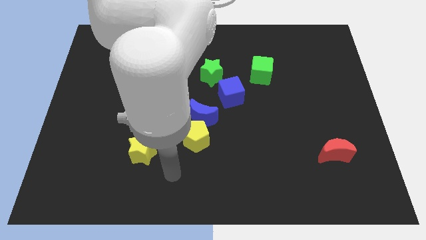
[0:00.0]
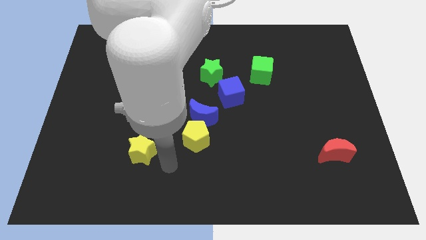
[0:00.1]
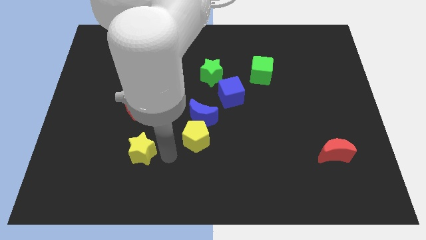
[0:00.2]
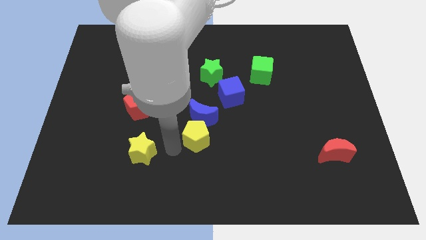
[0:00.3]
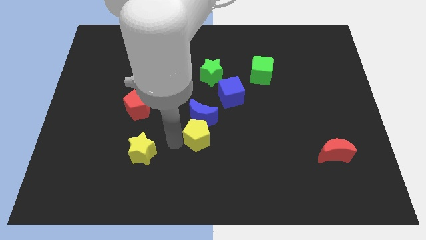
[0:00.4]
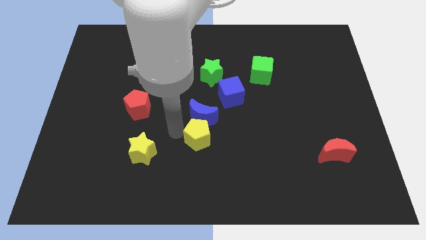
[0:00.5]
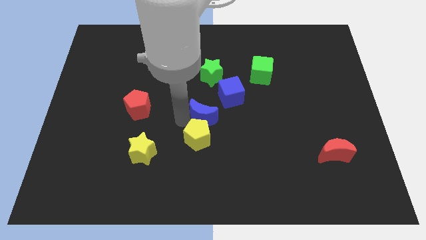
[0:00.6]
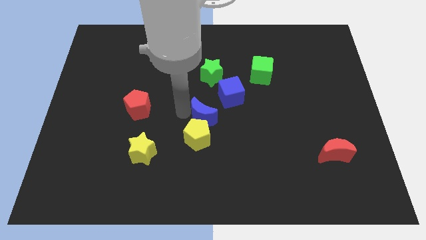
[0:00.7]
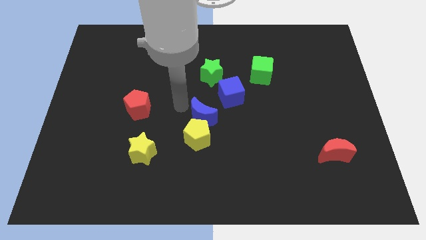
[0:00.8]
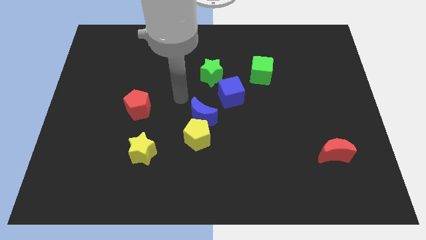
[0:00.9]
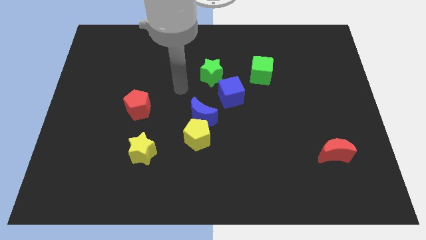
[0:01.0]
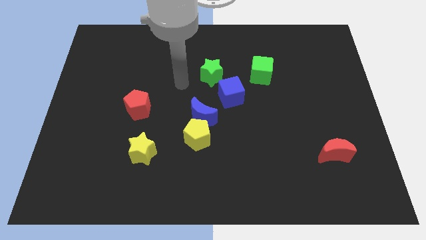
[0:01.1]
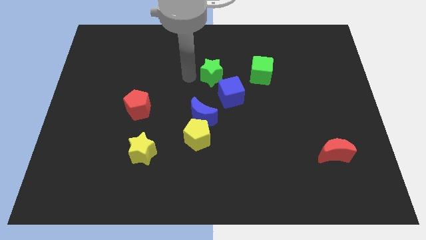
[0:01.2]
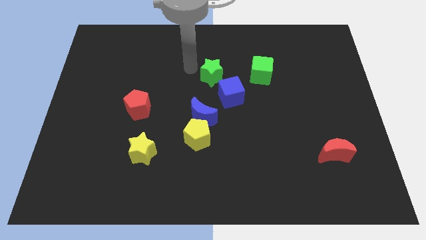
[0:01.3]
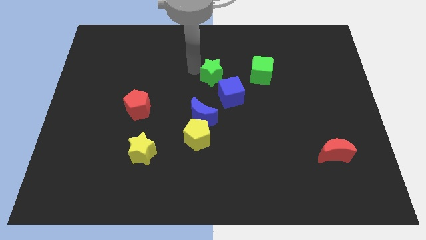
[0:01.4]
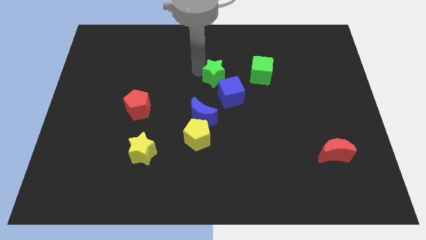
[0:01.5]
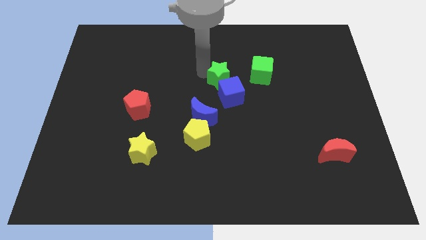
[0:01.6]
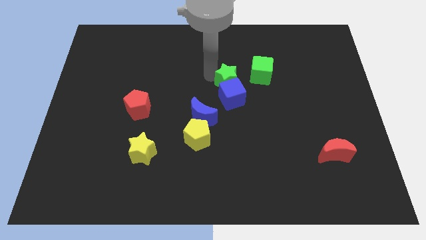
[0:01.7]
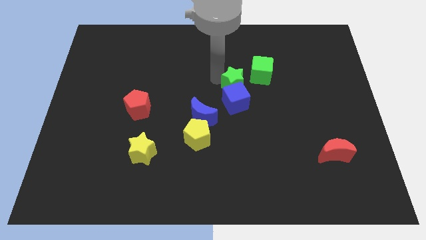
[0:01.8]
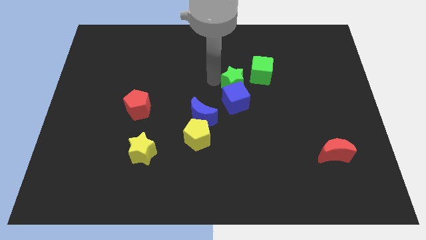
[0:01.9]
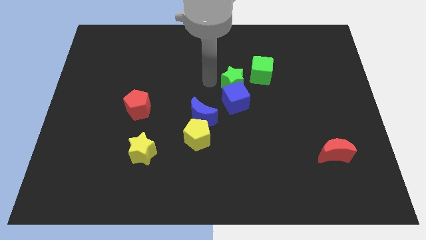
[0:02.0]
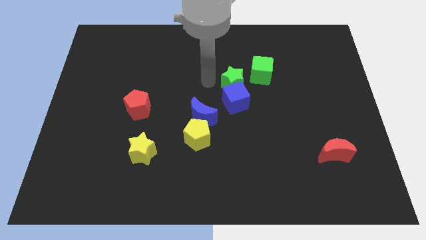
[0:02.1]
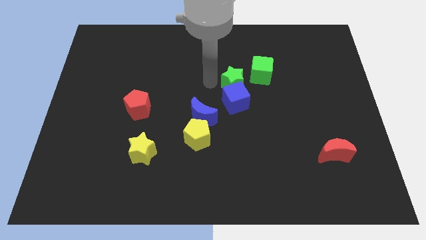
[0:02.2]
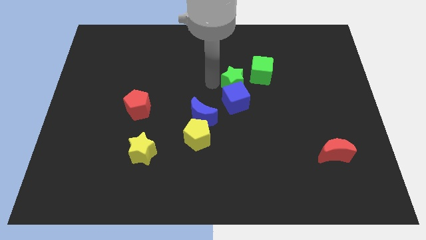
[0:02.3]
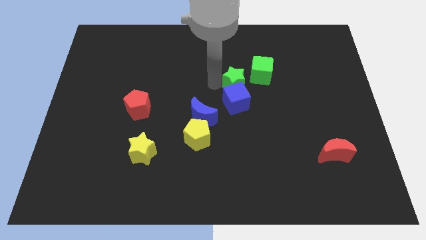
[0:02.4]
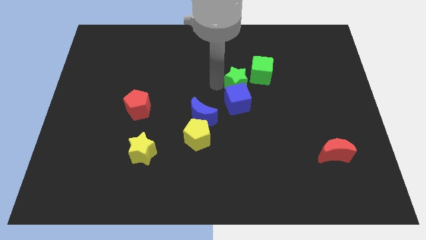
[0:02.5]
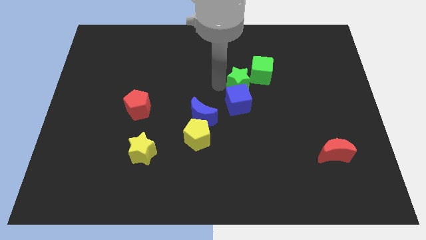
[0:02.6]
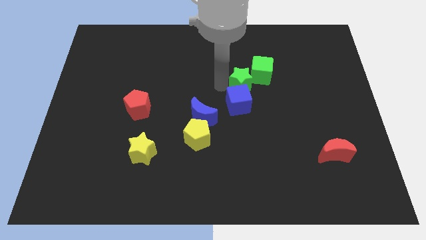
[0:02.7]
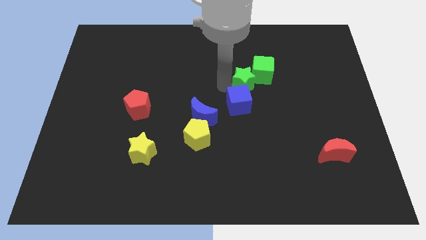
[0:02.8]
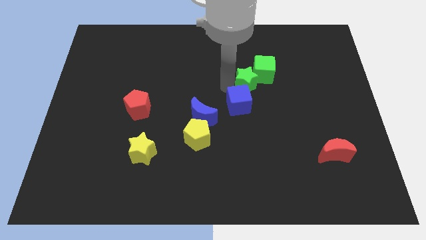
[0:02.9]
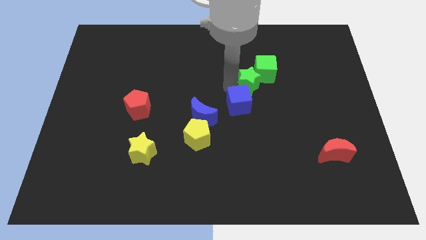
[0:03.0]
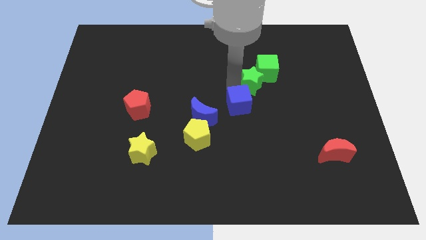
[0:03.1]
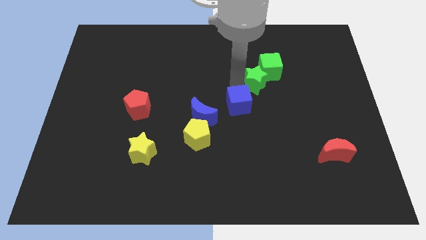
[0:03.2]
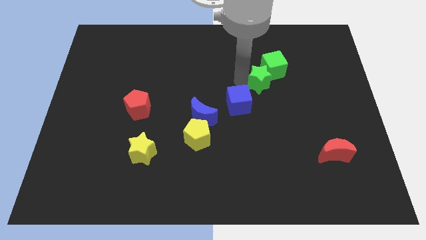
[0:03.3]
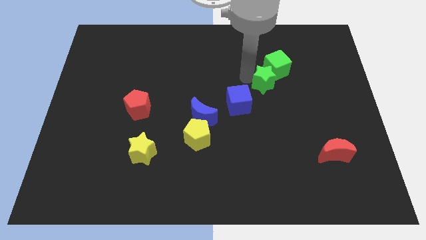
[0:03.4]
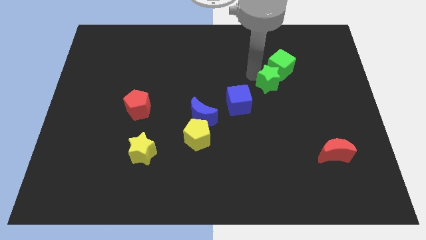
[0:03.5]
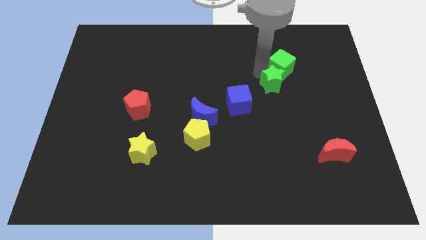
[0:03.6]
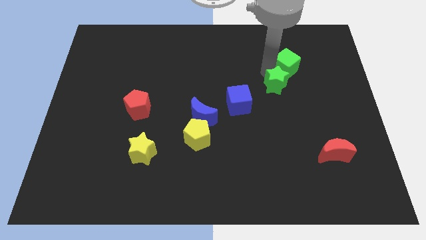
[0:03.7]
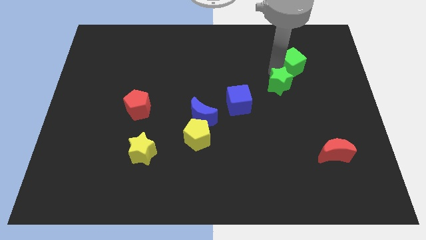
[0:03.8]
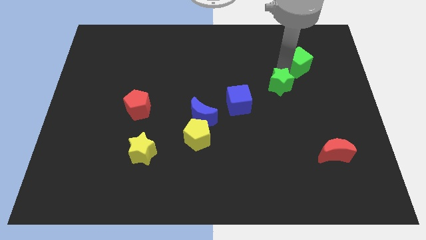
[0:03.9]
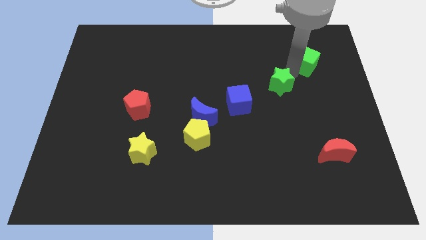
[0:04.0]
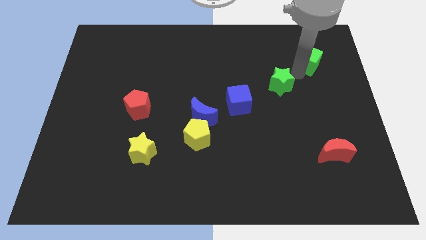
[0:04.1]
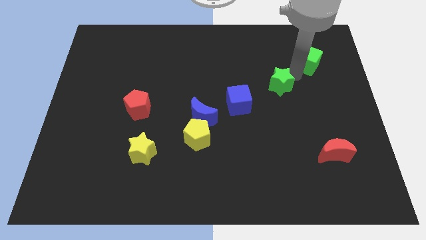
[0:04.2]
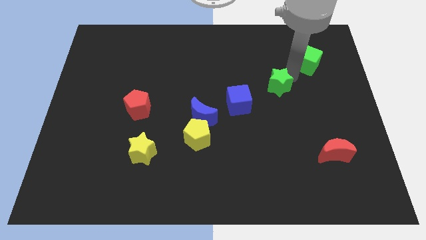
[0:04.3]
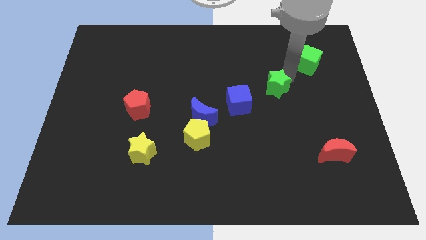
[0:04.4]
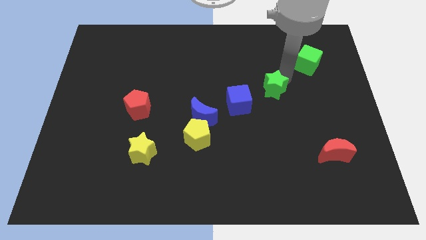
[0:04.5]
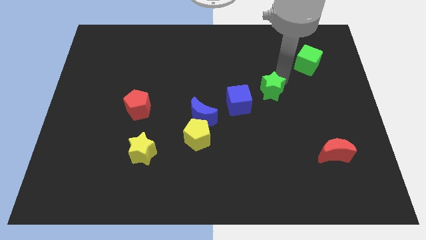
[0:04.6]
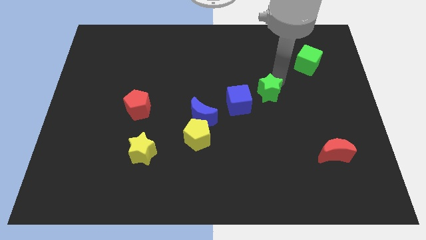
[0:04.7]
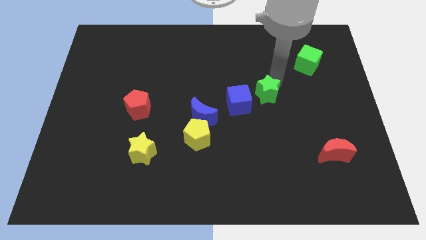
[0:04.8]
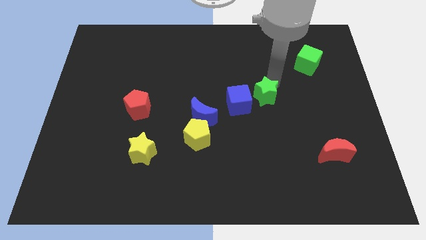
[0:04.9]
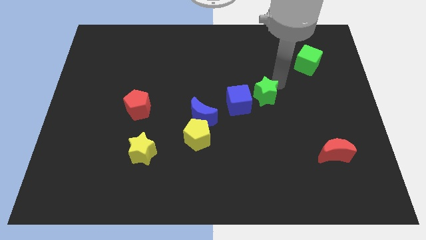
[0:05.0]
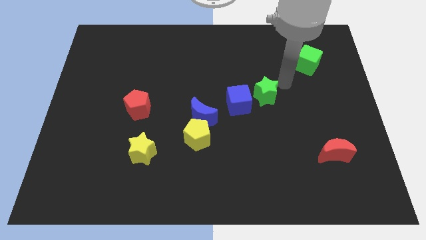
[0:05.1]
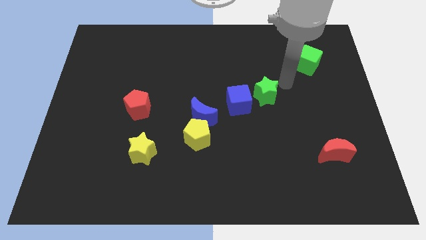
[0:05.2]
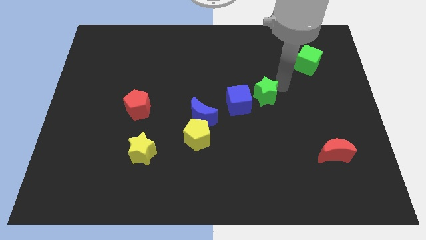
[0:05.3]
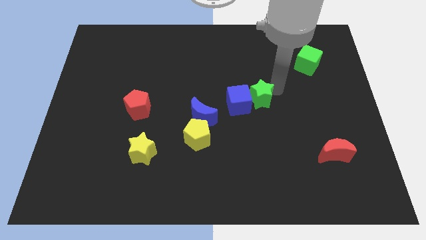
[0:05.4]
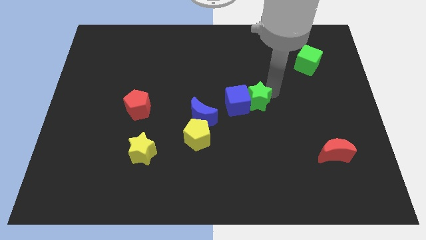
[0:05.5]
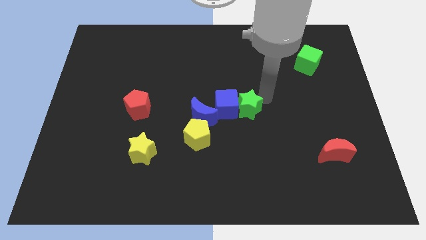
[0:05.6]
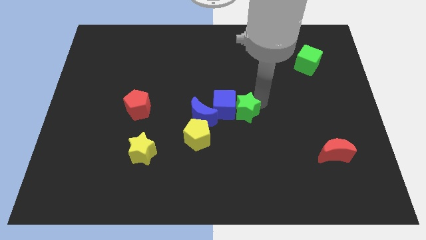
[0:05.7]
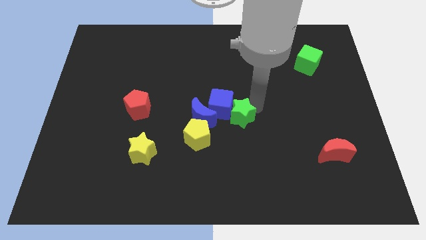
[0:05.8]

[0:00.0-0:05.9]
slide the green star to the top right side of the yellow pentagon
